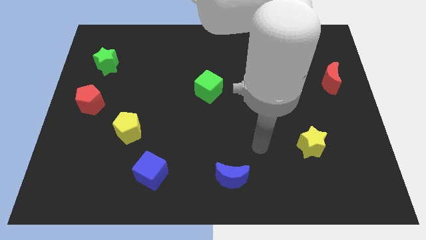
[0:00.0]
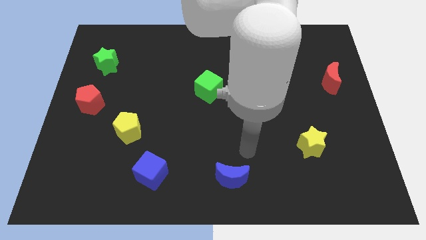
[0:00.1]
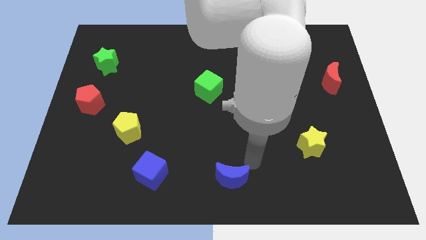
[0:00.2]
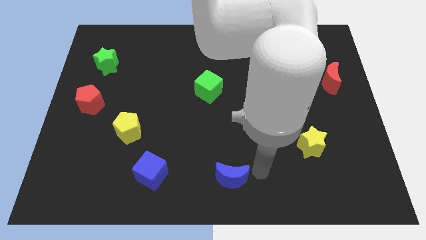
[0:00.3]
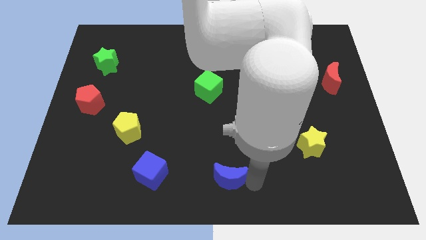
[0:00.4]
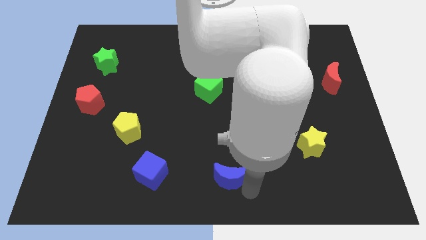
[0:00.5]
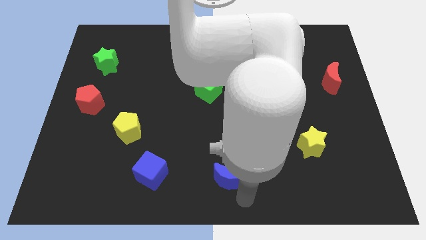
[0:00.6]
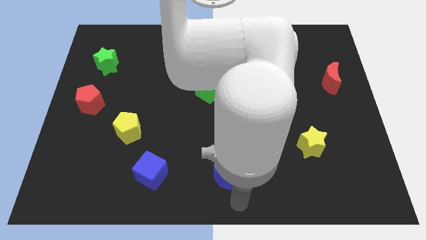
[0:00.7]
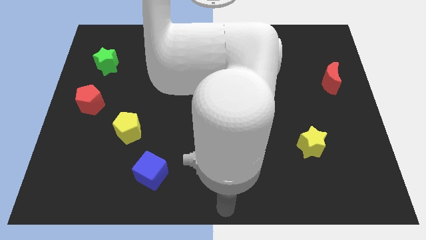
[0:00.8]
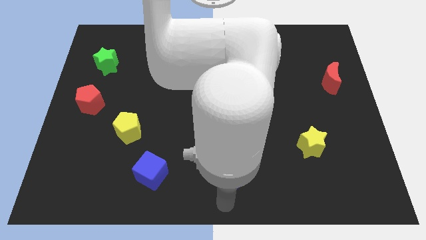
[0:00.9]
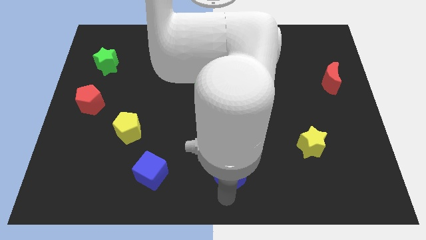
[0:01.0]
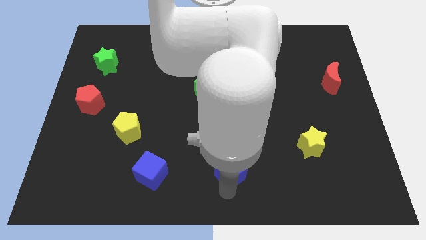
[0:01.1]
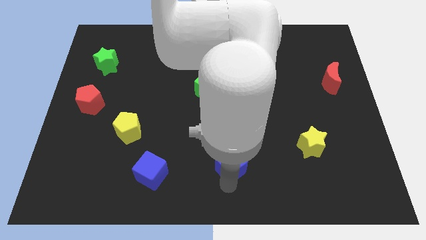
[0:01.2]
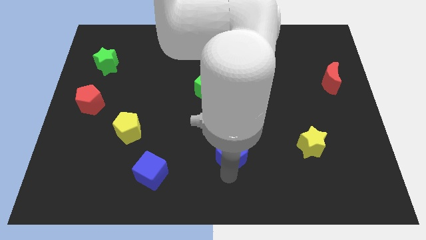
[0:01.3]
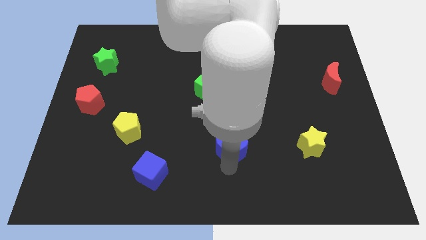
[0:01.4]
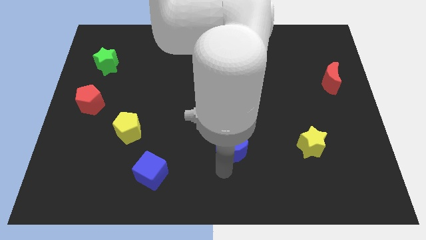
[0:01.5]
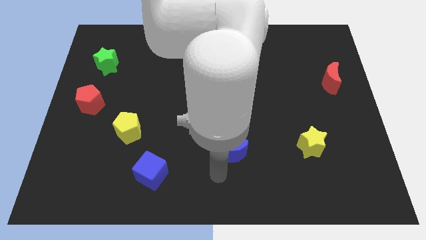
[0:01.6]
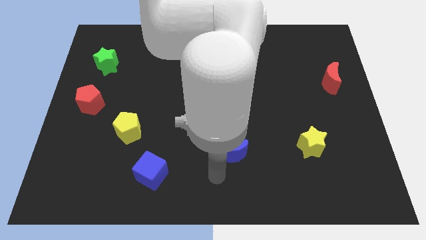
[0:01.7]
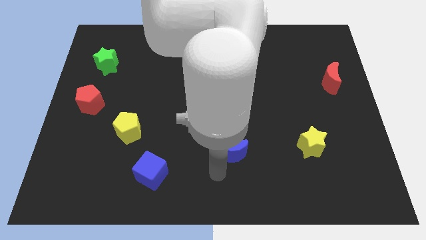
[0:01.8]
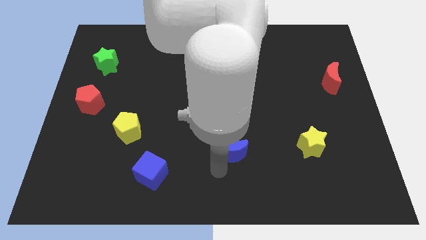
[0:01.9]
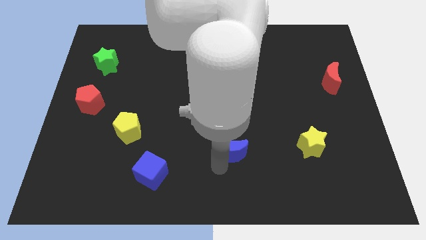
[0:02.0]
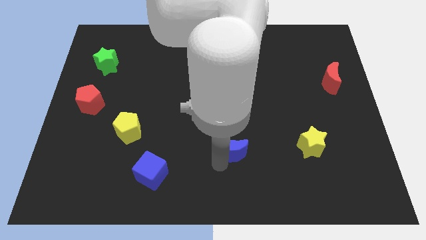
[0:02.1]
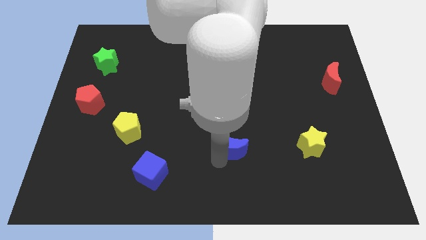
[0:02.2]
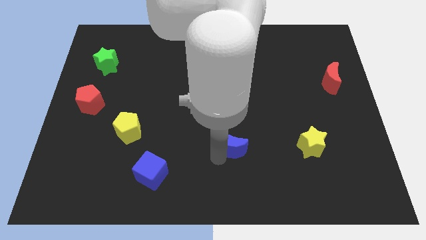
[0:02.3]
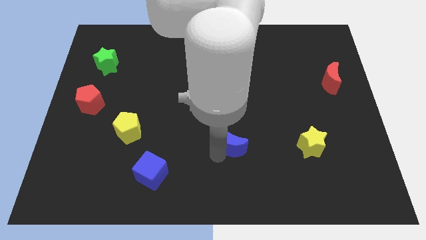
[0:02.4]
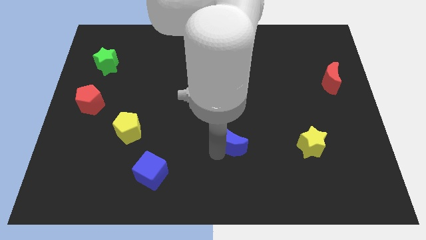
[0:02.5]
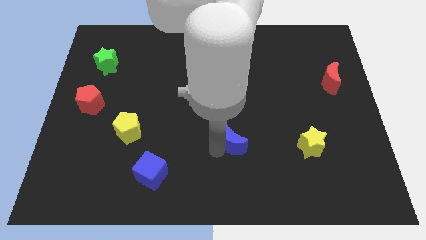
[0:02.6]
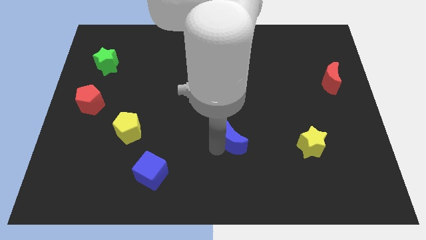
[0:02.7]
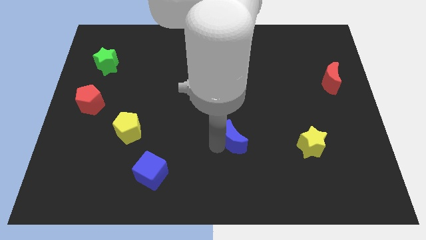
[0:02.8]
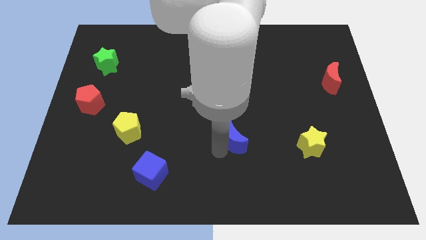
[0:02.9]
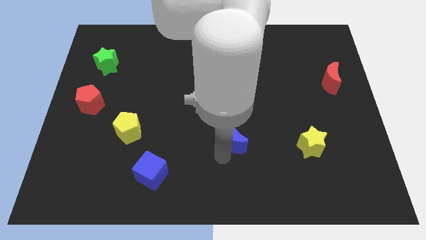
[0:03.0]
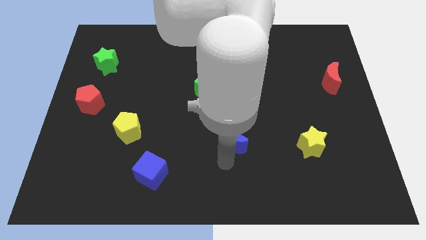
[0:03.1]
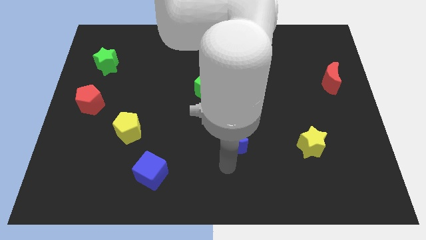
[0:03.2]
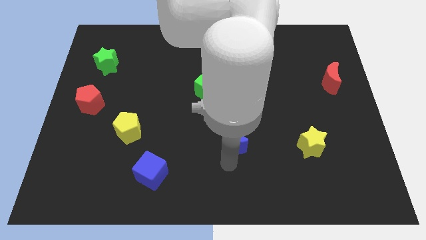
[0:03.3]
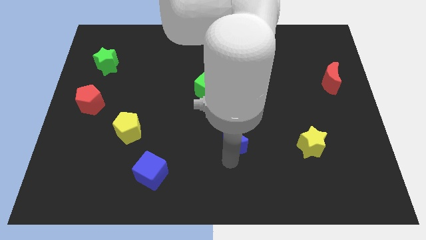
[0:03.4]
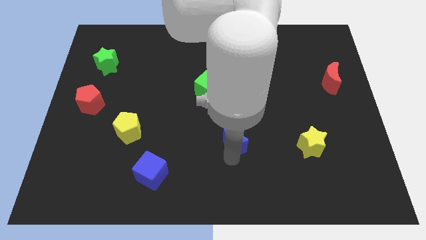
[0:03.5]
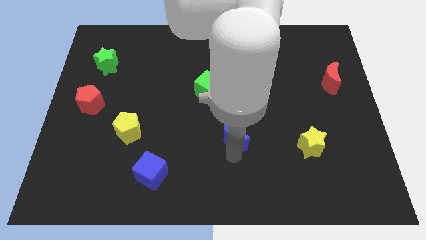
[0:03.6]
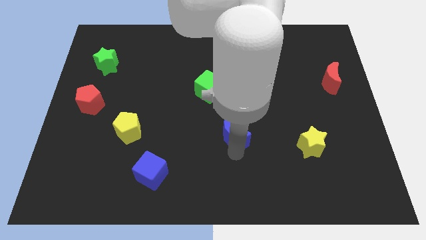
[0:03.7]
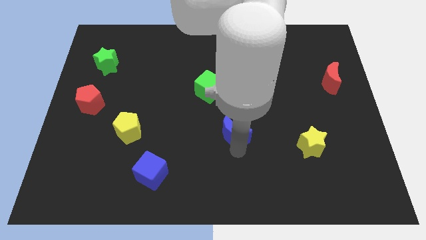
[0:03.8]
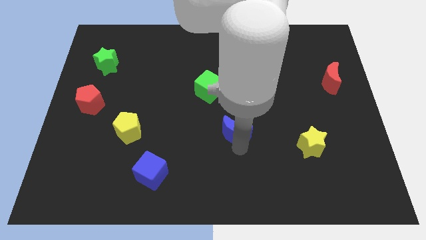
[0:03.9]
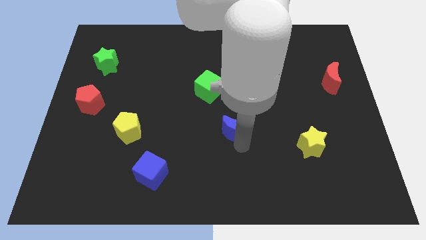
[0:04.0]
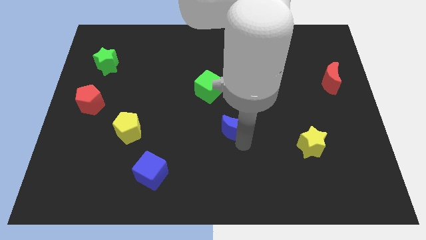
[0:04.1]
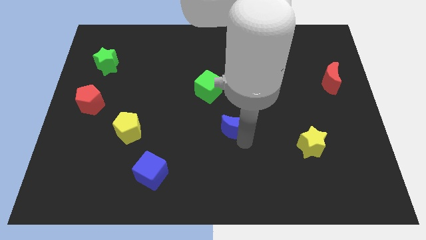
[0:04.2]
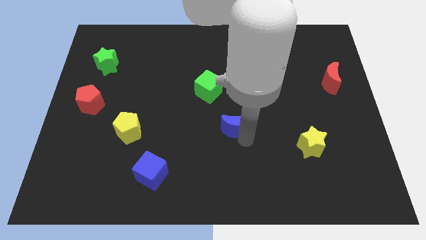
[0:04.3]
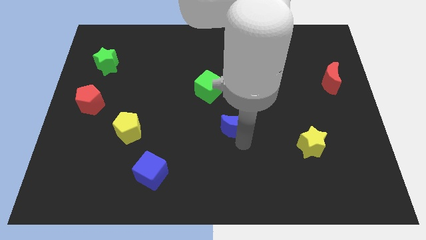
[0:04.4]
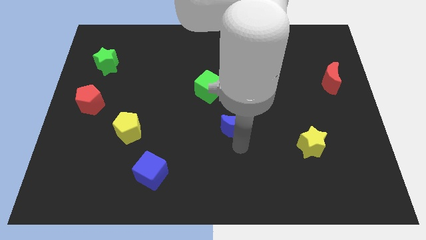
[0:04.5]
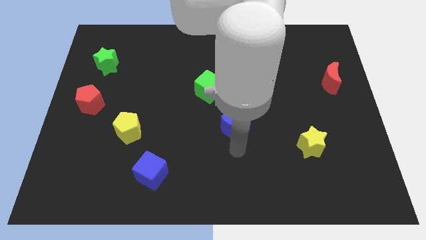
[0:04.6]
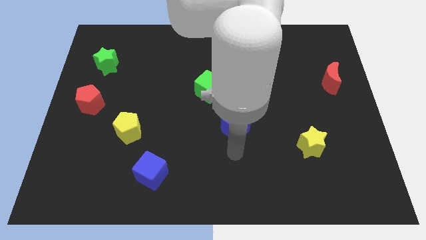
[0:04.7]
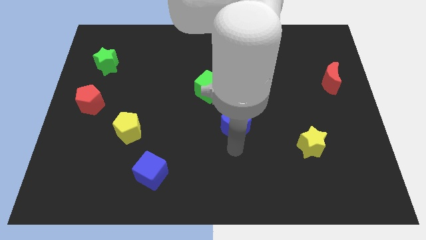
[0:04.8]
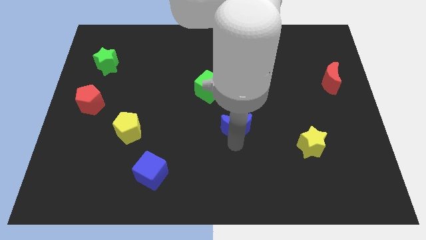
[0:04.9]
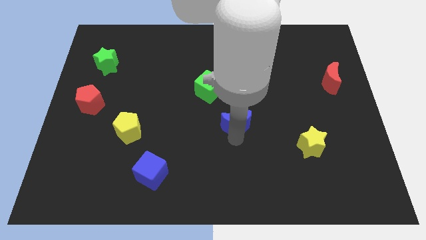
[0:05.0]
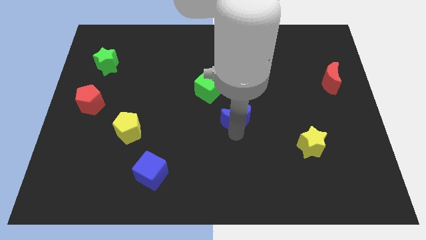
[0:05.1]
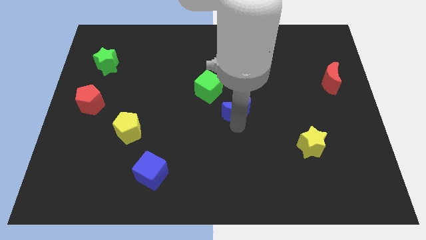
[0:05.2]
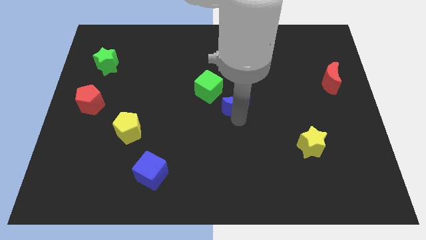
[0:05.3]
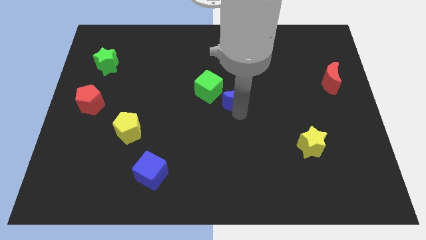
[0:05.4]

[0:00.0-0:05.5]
slide the blue moon upwards

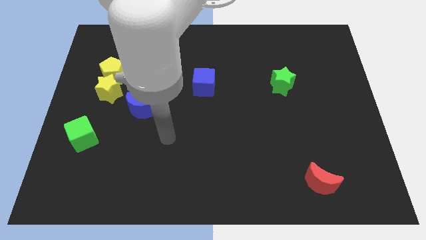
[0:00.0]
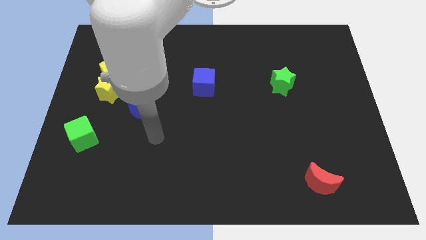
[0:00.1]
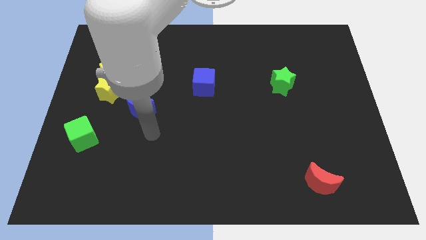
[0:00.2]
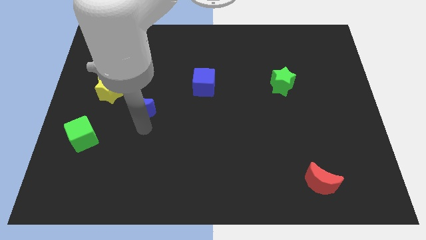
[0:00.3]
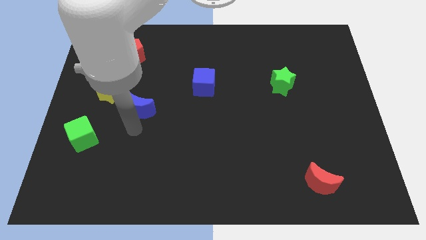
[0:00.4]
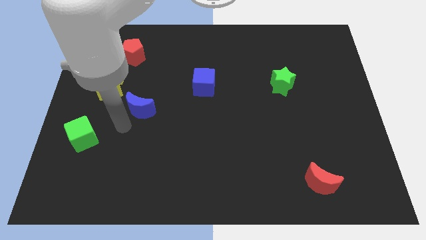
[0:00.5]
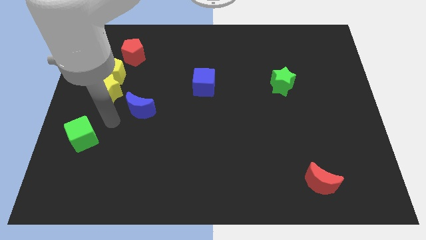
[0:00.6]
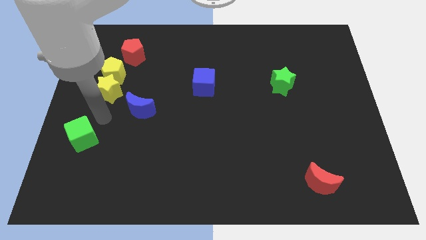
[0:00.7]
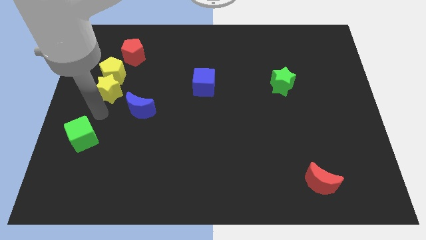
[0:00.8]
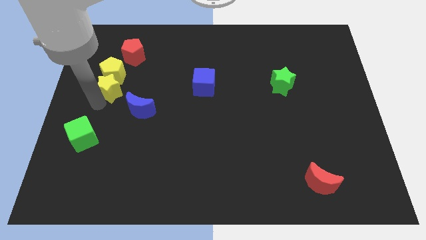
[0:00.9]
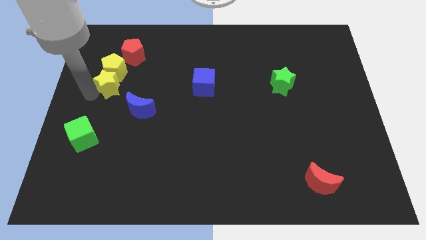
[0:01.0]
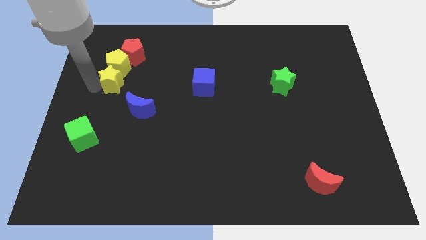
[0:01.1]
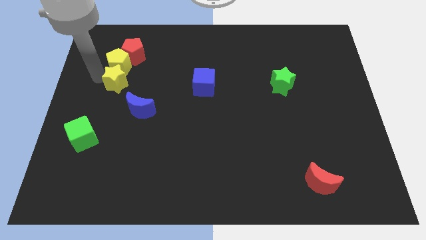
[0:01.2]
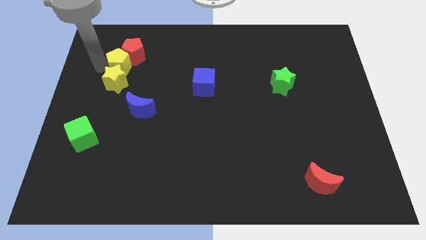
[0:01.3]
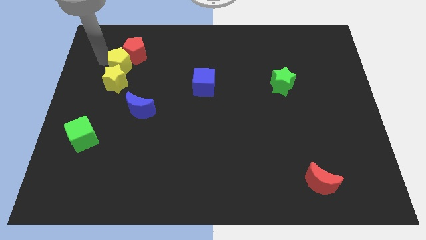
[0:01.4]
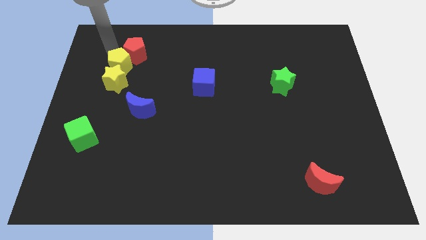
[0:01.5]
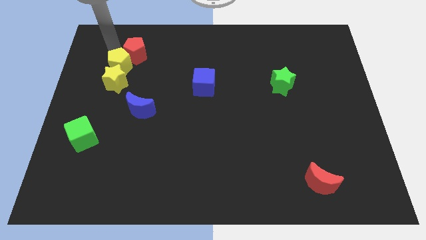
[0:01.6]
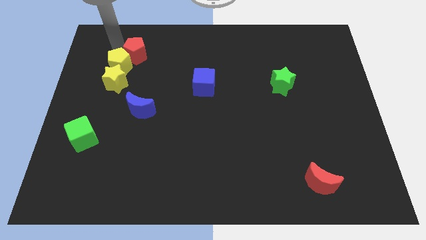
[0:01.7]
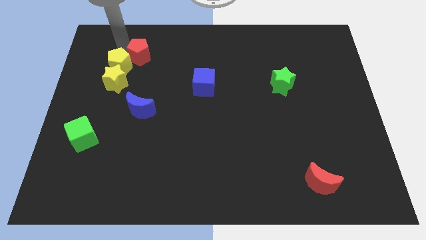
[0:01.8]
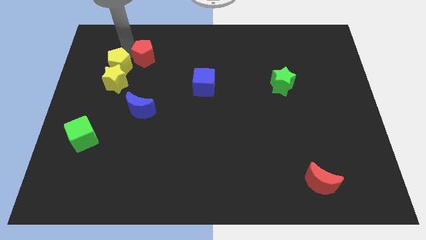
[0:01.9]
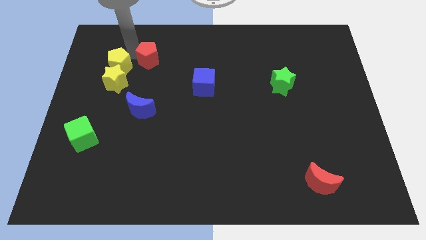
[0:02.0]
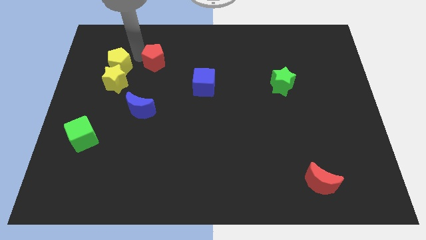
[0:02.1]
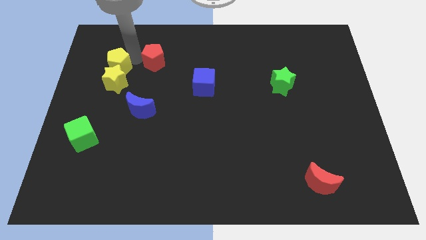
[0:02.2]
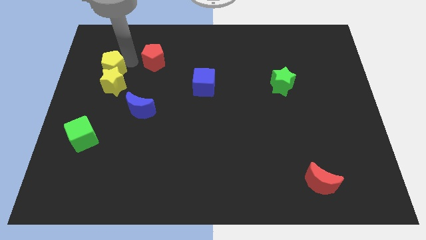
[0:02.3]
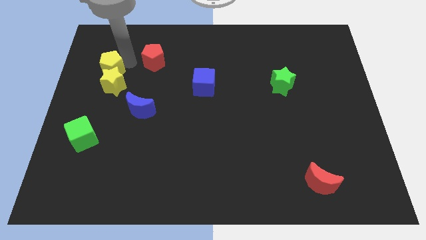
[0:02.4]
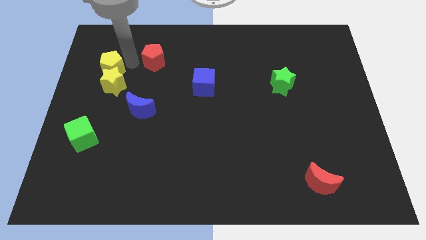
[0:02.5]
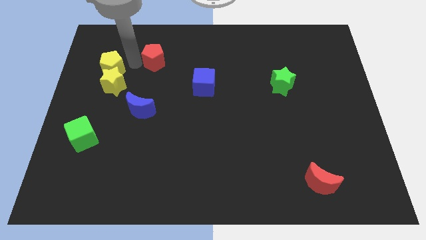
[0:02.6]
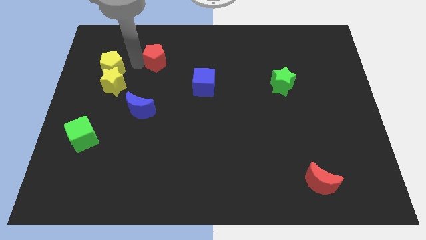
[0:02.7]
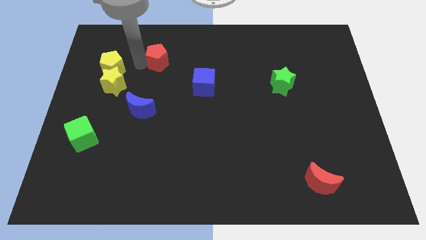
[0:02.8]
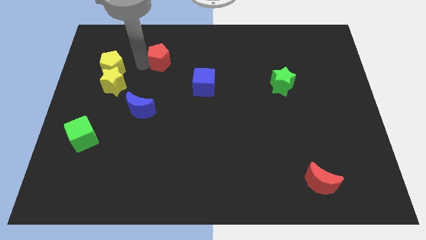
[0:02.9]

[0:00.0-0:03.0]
slide the red pentagon somewhat to the right
